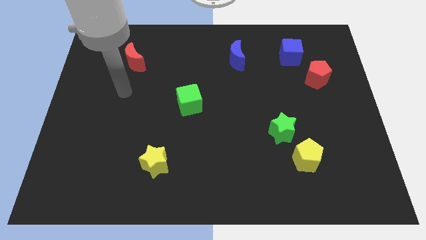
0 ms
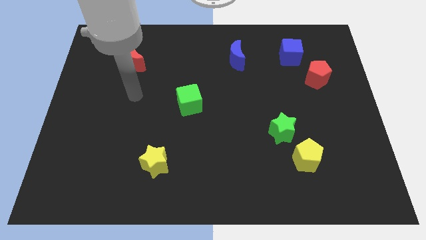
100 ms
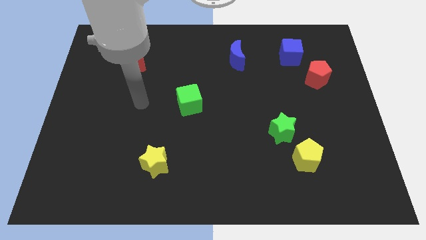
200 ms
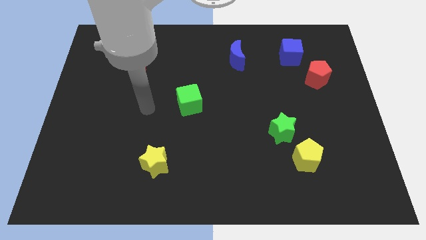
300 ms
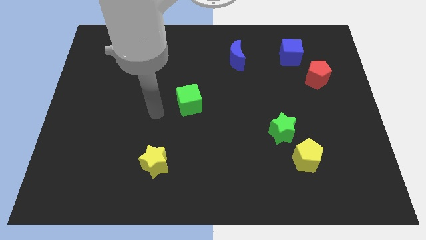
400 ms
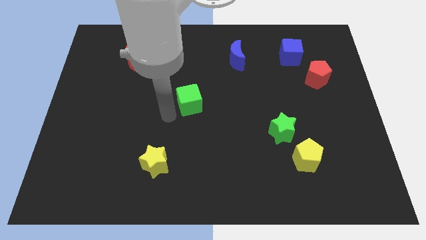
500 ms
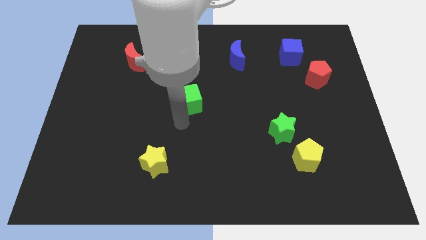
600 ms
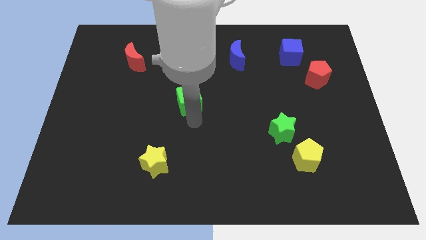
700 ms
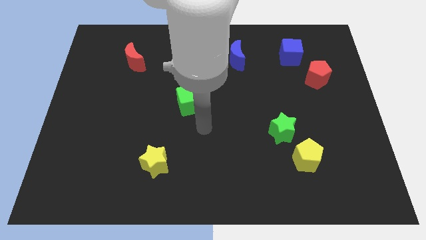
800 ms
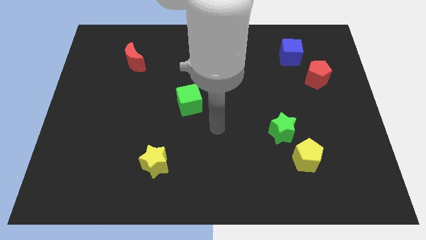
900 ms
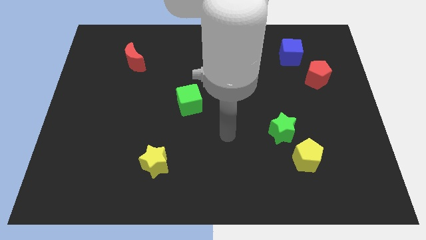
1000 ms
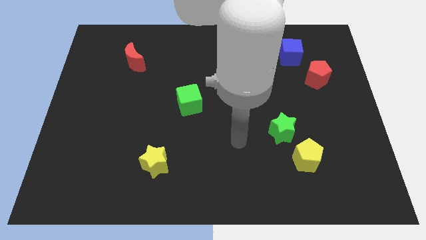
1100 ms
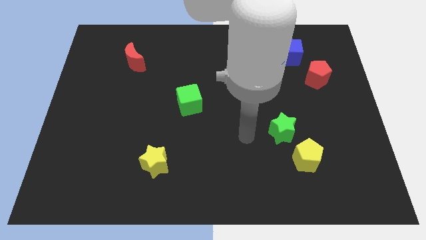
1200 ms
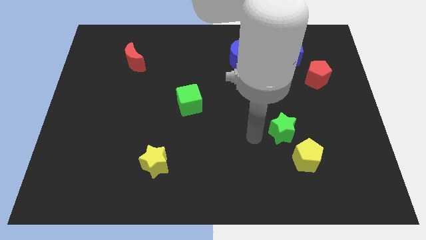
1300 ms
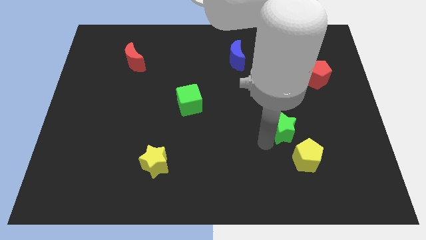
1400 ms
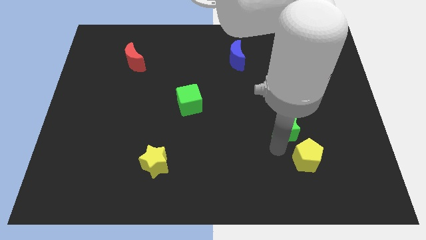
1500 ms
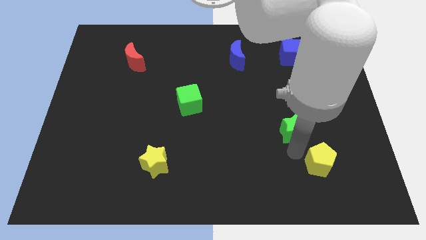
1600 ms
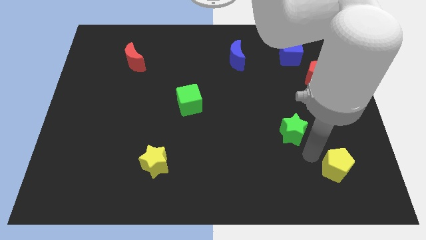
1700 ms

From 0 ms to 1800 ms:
move the green star away from the yellow pentagon

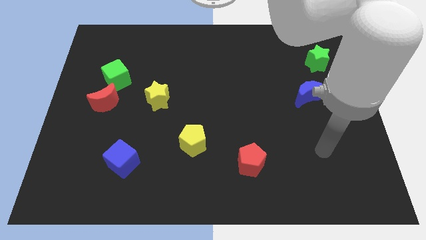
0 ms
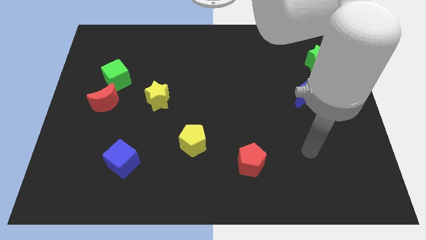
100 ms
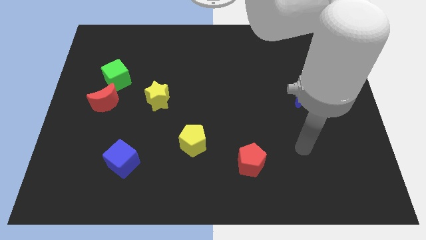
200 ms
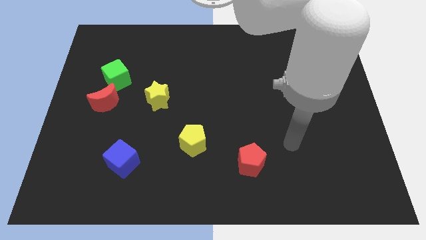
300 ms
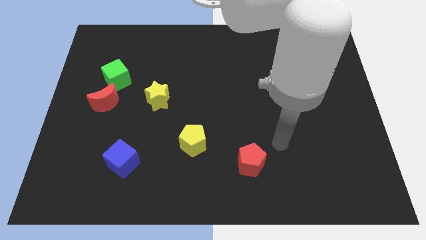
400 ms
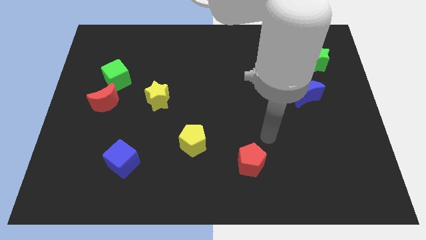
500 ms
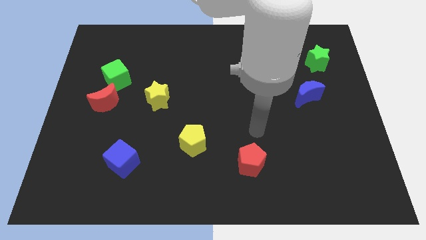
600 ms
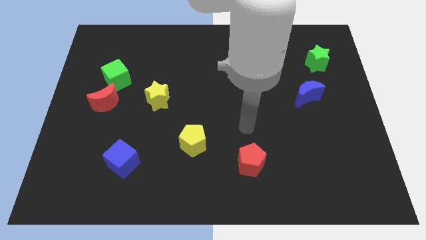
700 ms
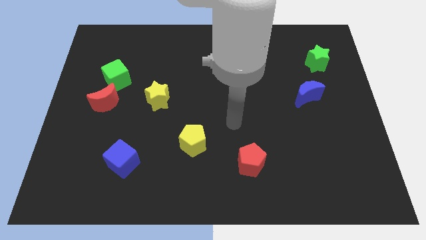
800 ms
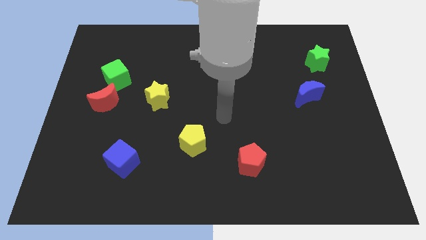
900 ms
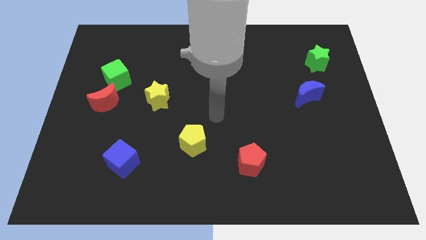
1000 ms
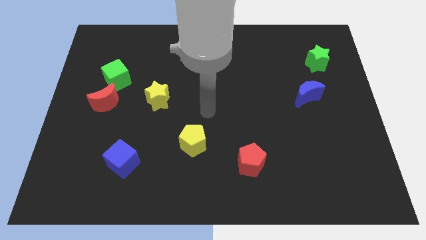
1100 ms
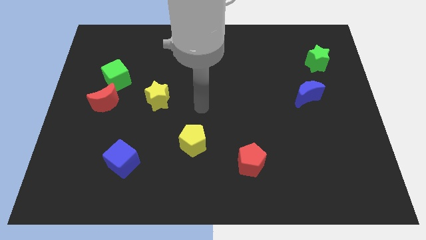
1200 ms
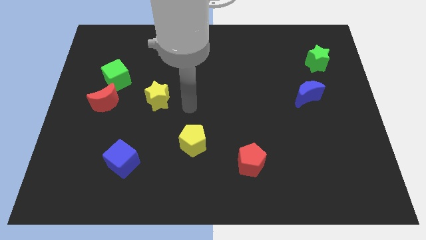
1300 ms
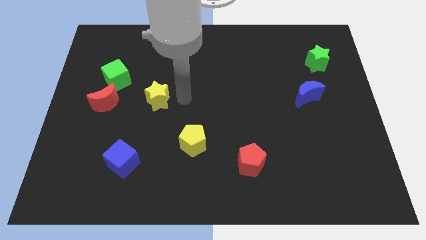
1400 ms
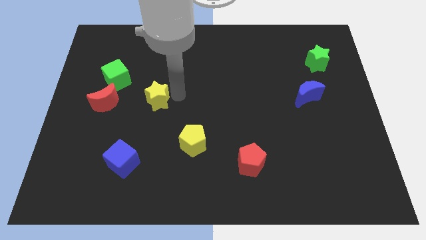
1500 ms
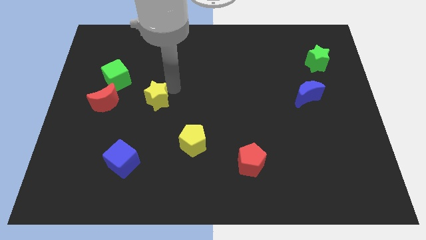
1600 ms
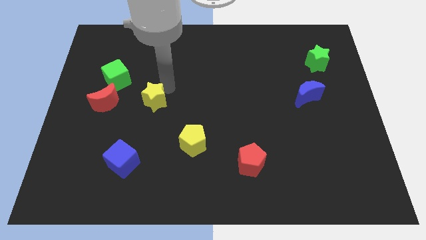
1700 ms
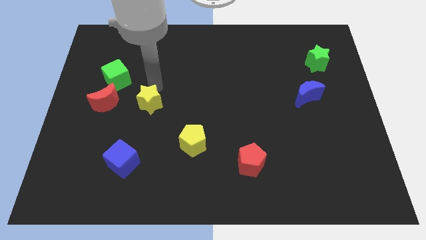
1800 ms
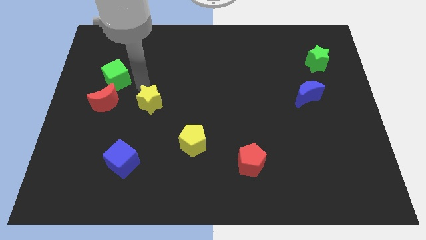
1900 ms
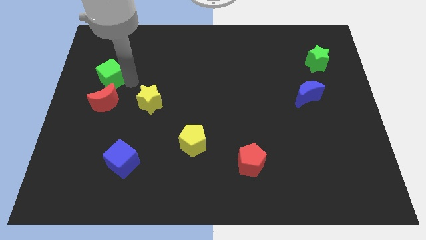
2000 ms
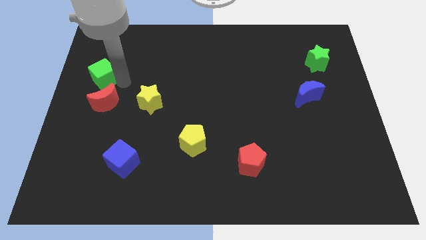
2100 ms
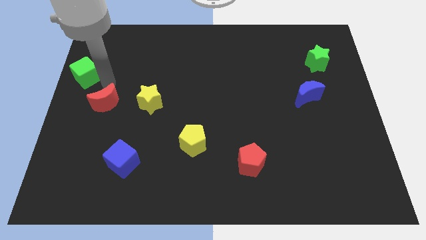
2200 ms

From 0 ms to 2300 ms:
pull the red moon apart from the green cube

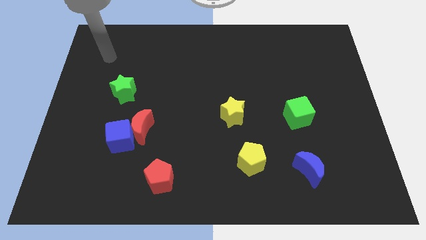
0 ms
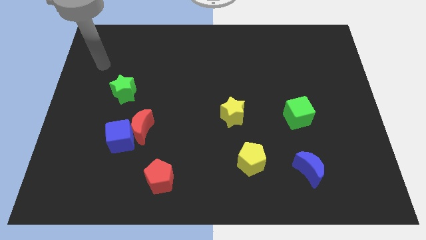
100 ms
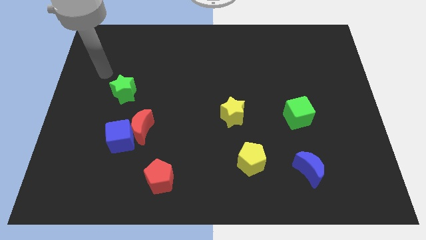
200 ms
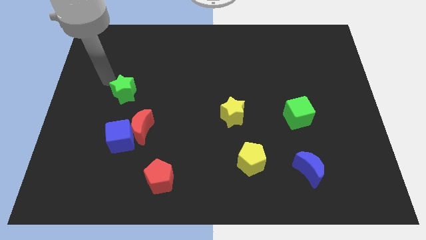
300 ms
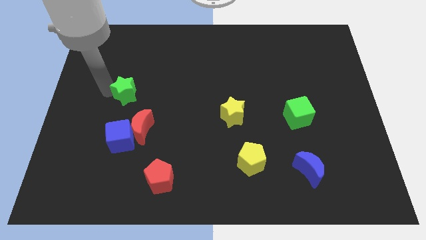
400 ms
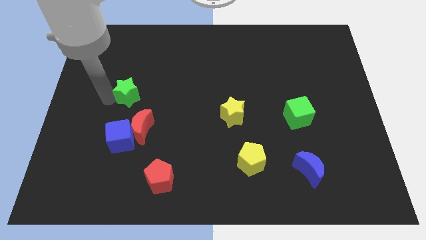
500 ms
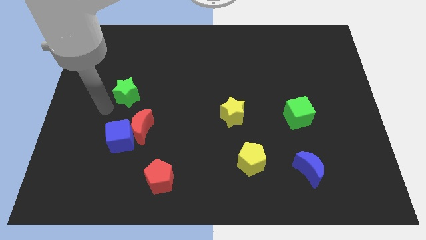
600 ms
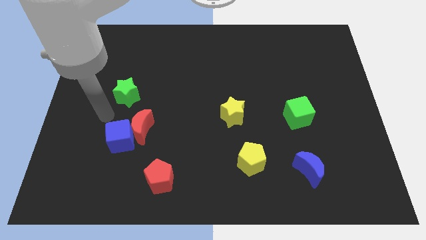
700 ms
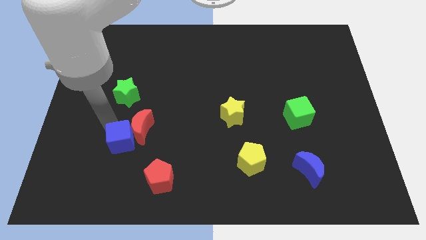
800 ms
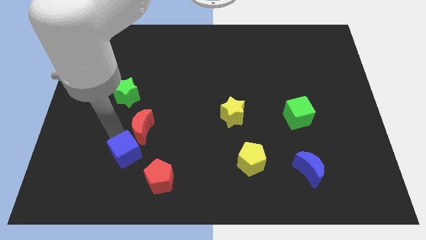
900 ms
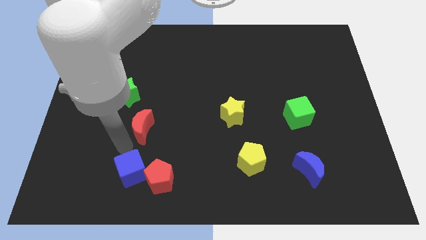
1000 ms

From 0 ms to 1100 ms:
move the red moon away from the blue cube

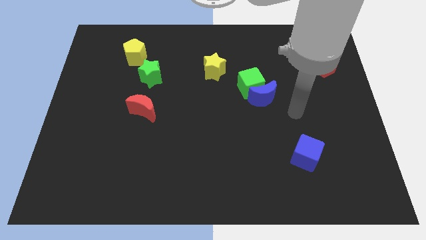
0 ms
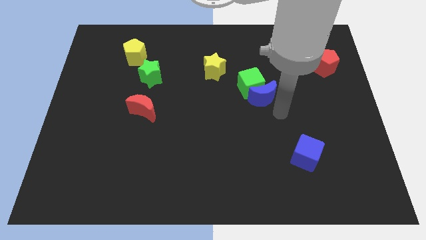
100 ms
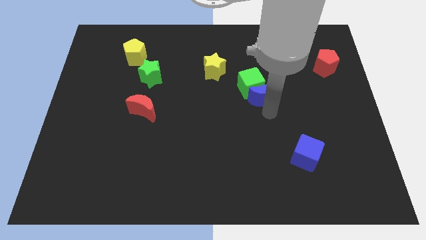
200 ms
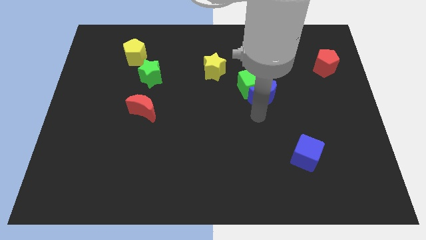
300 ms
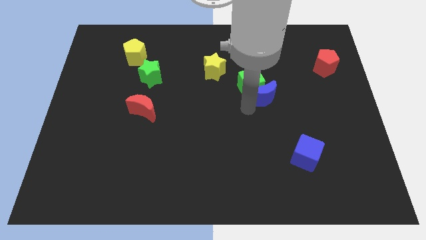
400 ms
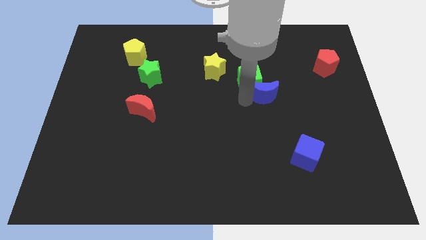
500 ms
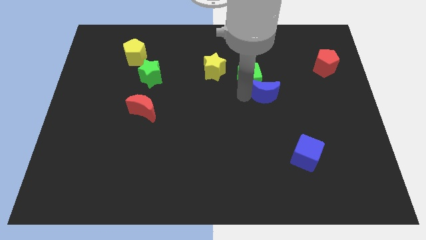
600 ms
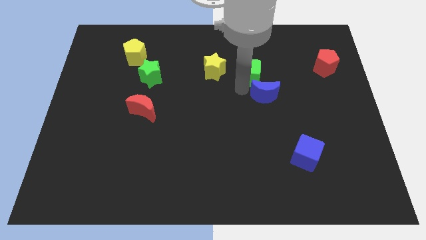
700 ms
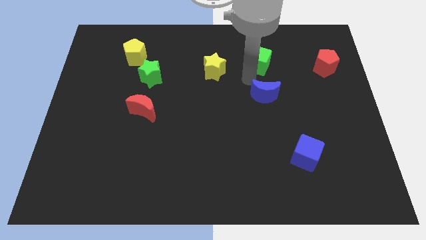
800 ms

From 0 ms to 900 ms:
pull the blue moon apart from the green cube

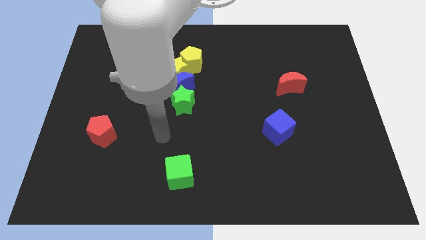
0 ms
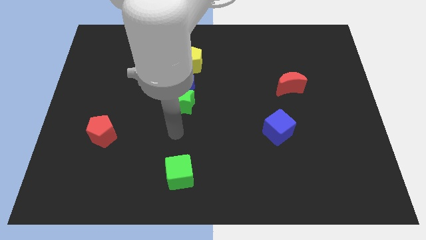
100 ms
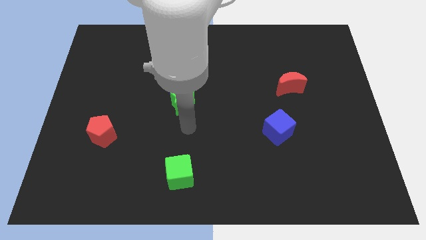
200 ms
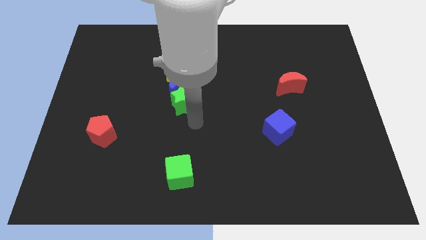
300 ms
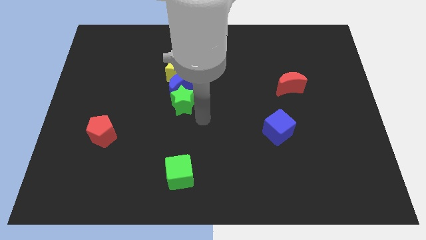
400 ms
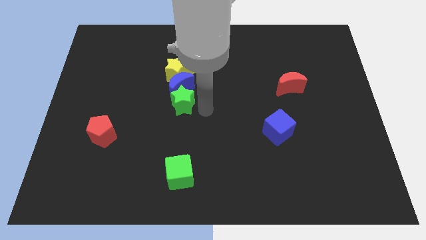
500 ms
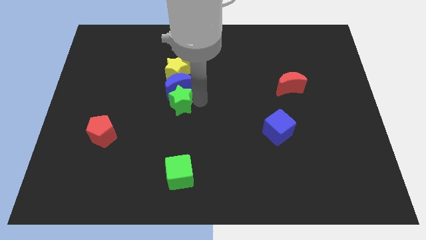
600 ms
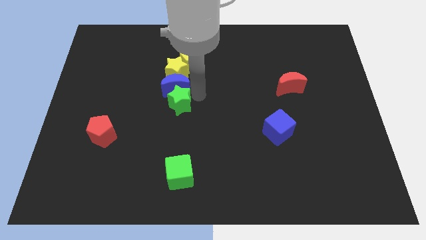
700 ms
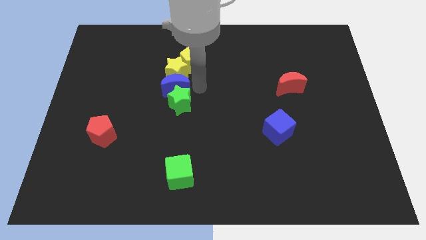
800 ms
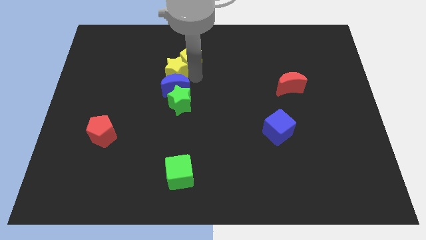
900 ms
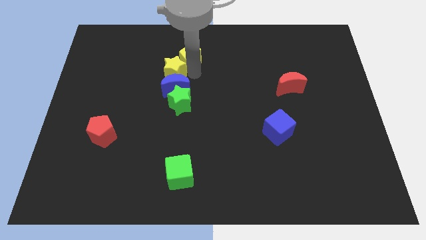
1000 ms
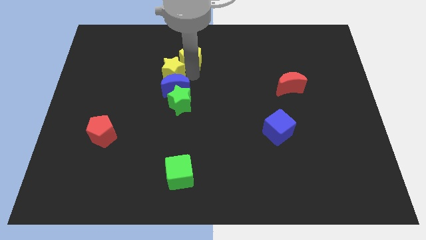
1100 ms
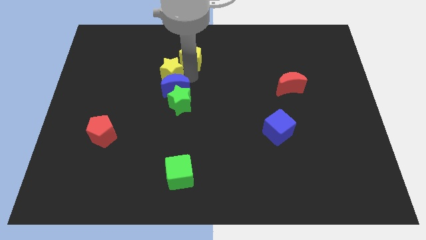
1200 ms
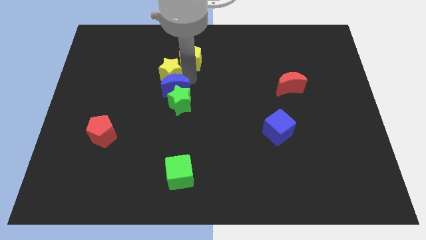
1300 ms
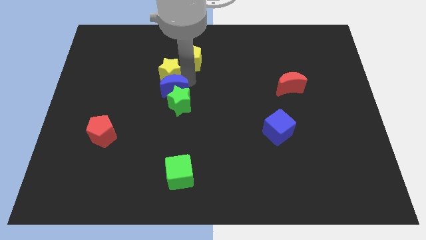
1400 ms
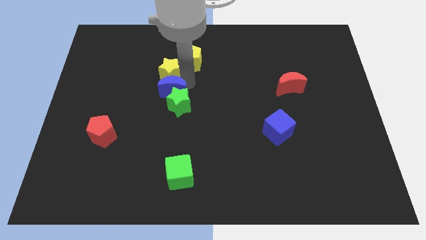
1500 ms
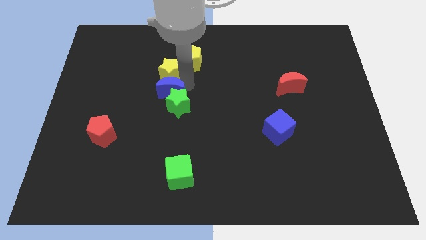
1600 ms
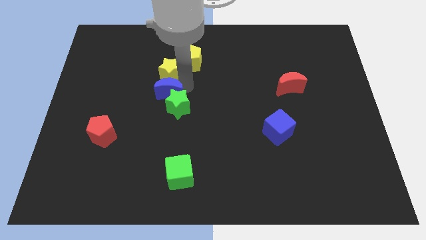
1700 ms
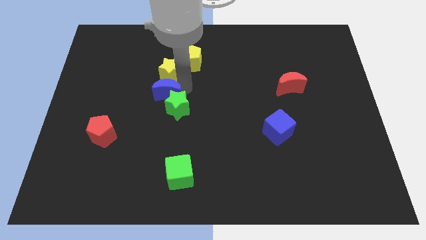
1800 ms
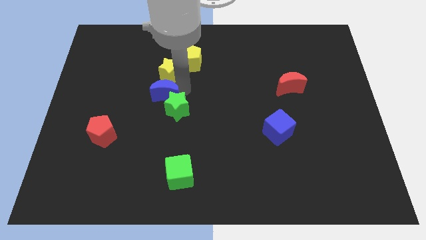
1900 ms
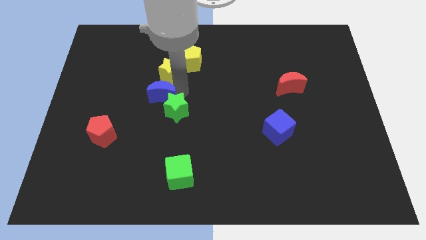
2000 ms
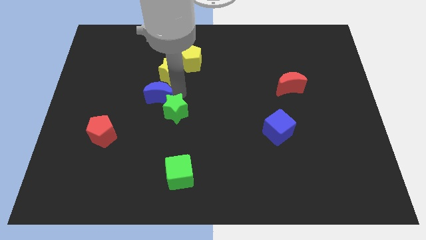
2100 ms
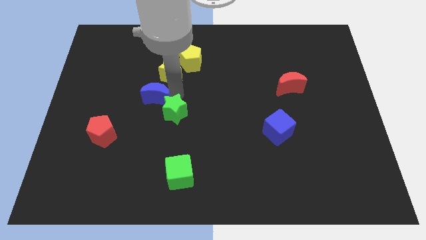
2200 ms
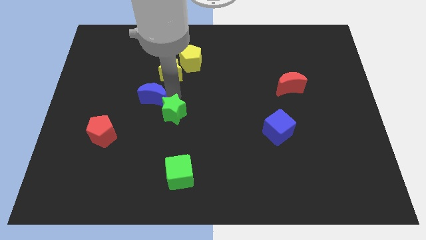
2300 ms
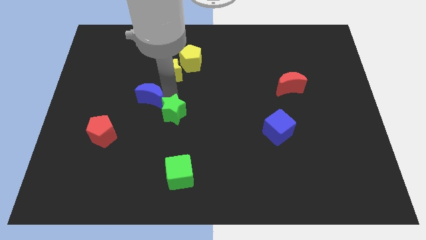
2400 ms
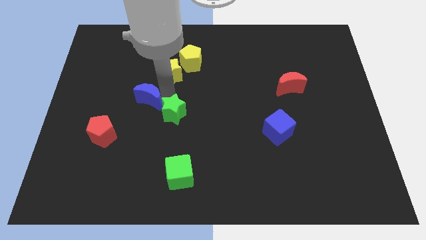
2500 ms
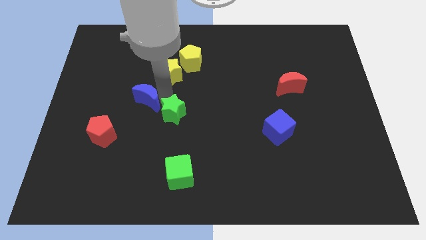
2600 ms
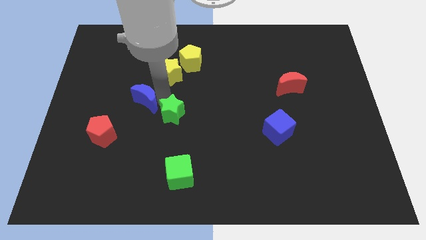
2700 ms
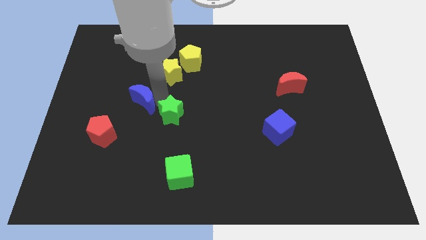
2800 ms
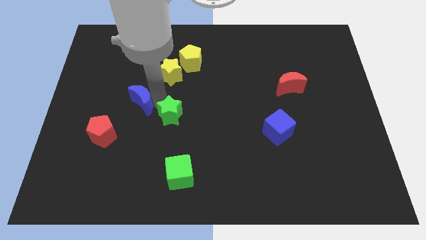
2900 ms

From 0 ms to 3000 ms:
separate the blue moon from the group of blocks

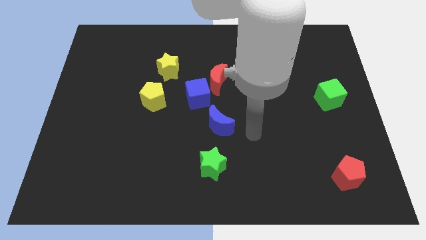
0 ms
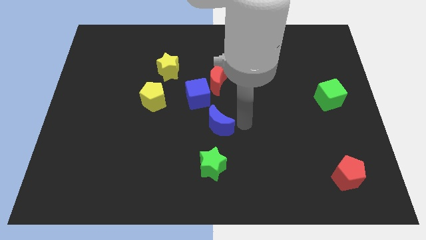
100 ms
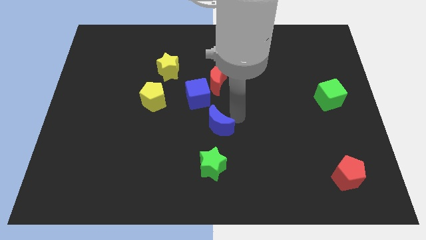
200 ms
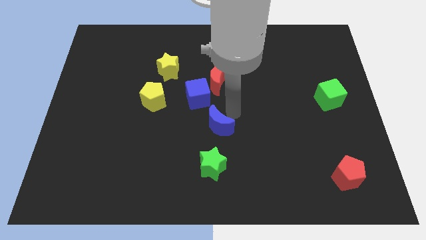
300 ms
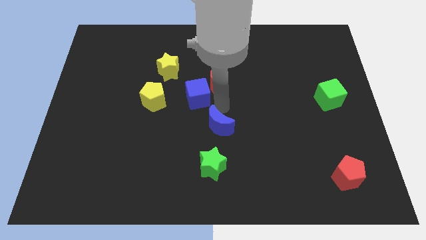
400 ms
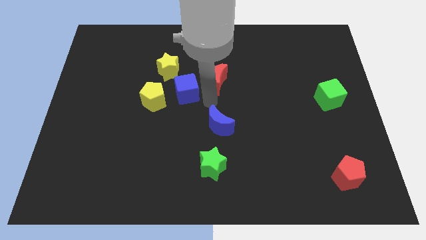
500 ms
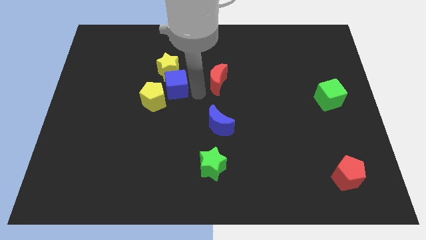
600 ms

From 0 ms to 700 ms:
separate the red moon from the blue cube
